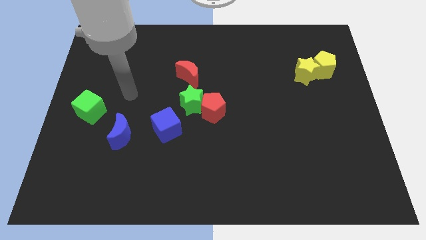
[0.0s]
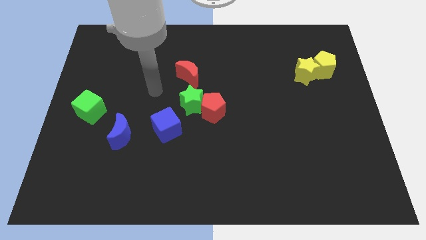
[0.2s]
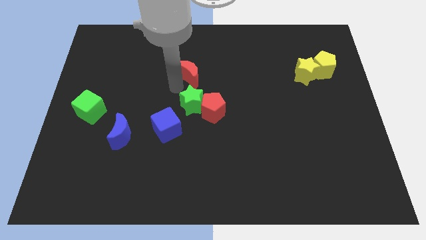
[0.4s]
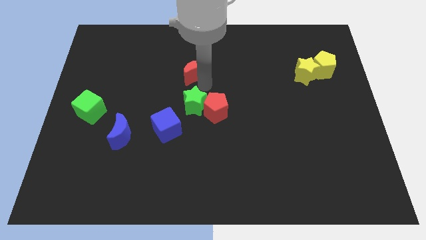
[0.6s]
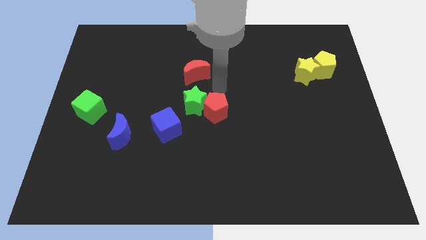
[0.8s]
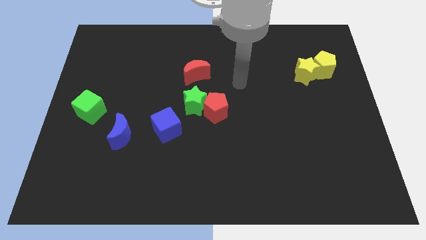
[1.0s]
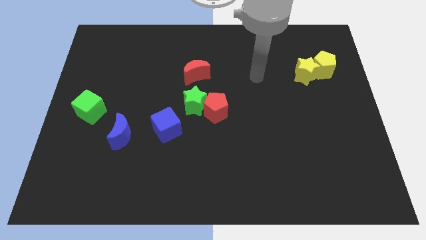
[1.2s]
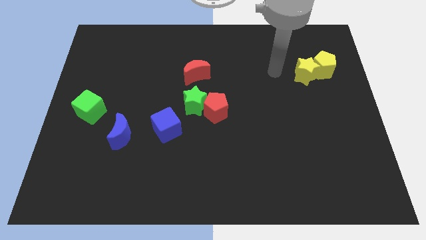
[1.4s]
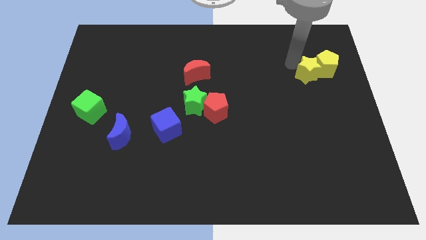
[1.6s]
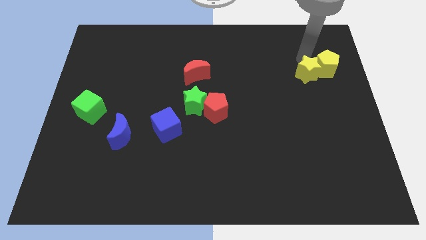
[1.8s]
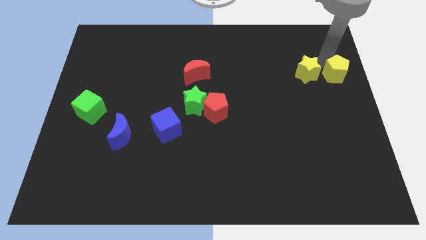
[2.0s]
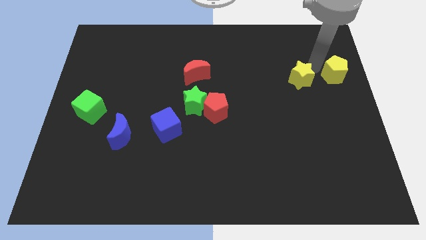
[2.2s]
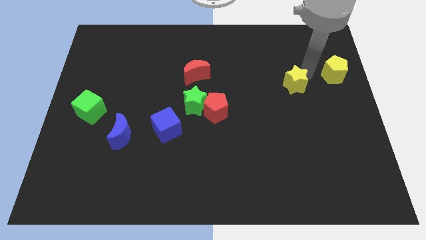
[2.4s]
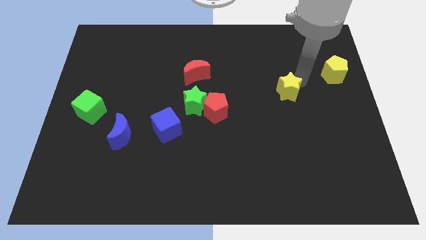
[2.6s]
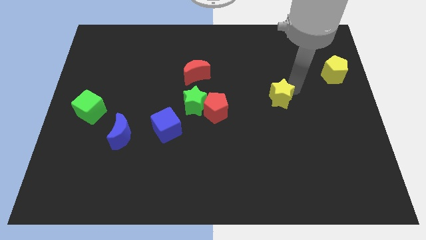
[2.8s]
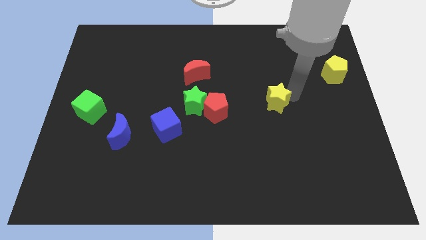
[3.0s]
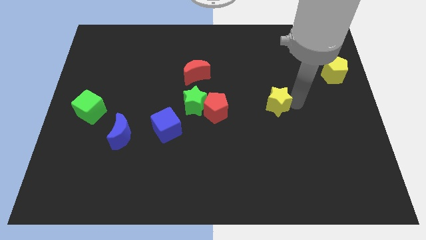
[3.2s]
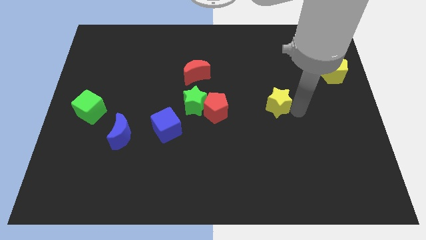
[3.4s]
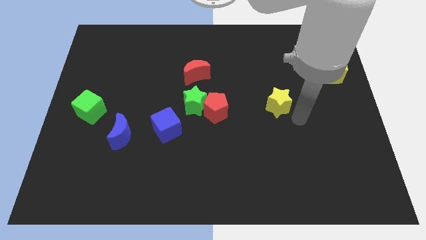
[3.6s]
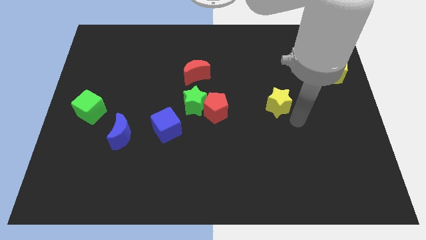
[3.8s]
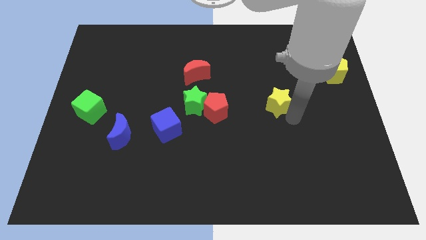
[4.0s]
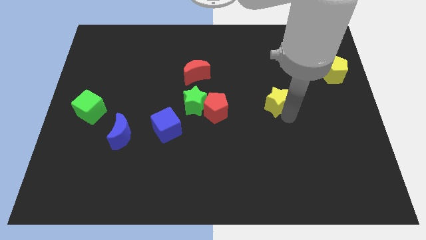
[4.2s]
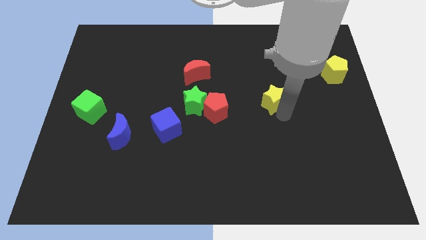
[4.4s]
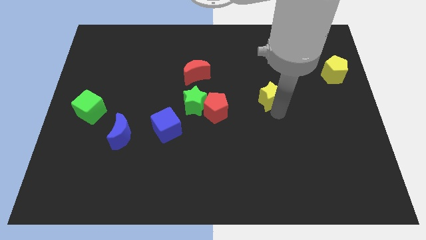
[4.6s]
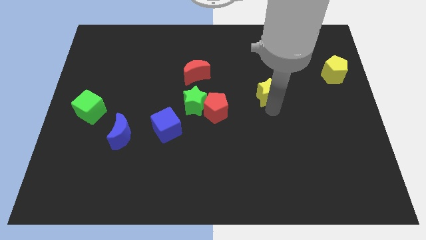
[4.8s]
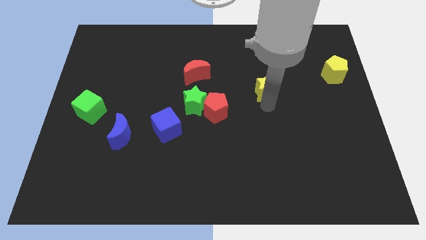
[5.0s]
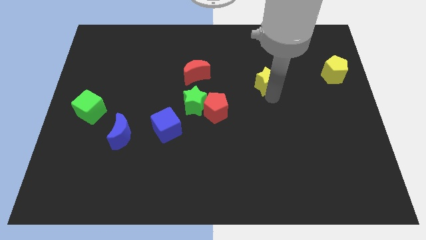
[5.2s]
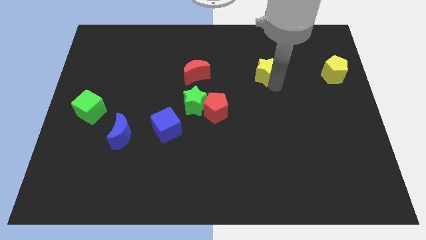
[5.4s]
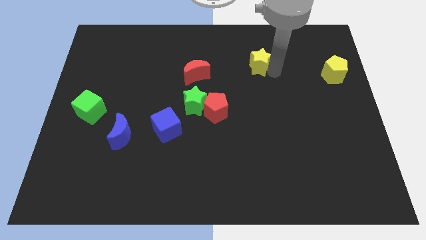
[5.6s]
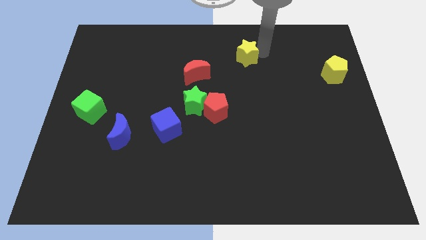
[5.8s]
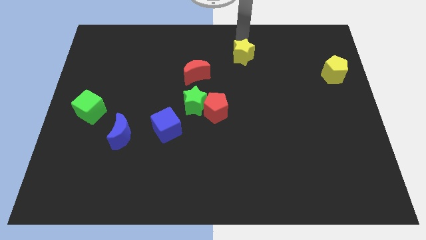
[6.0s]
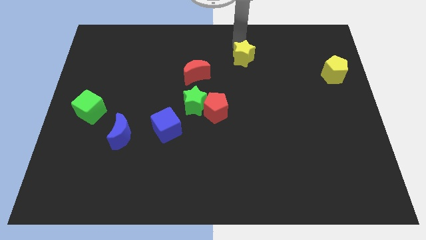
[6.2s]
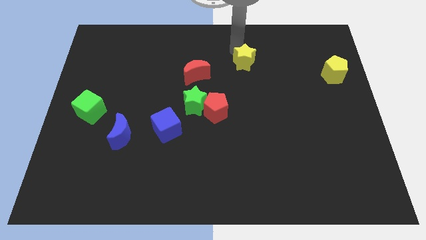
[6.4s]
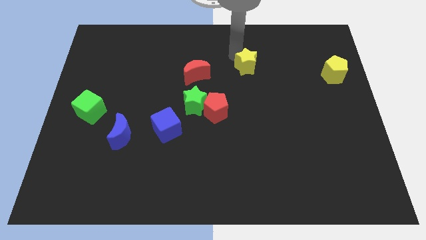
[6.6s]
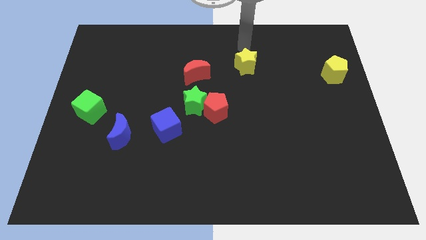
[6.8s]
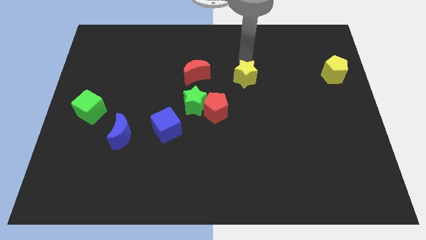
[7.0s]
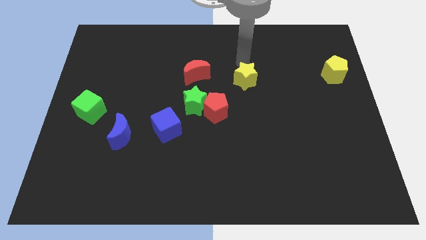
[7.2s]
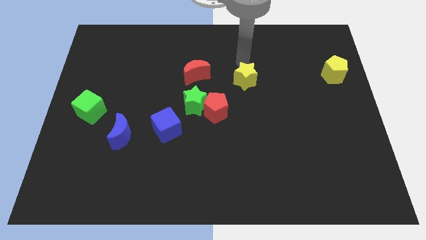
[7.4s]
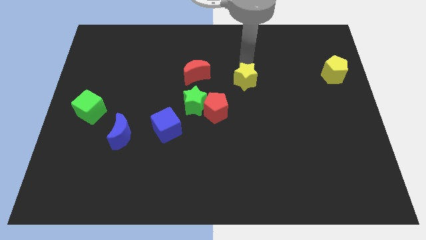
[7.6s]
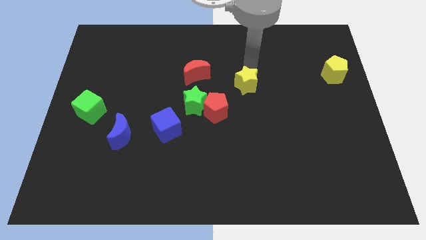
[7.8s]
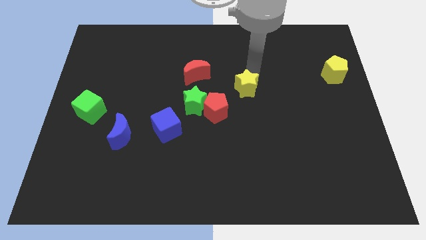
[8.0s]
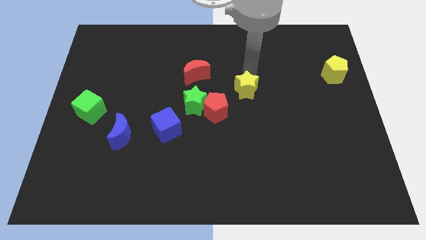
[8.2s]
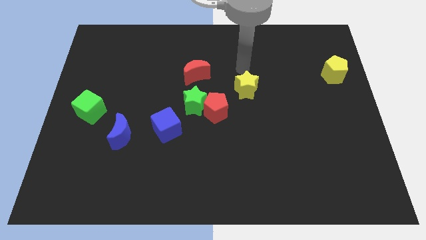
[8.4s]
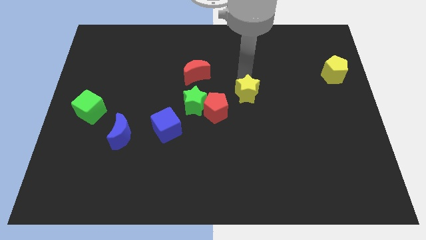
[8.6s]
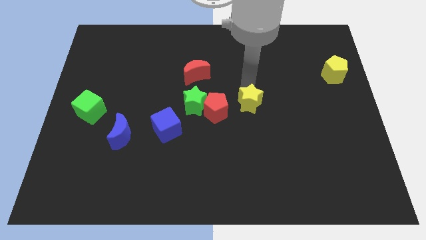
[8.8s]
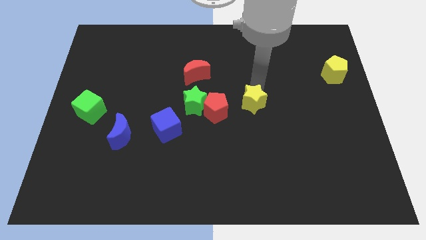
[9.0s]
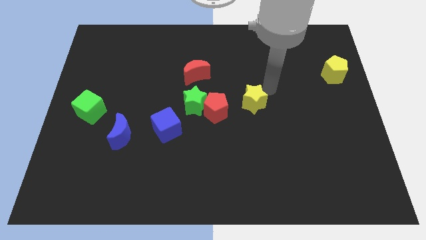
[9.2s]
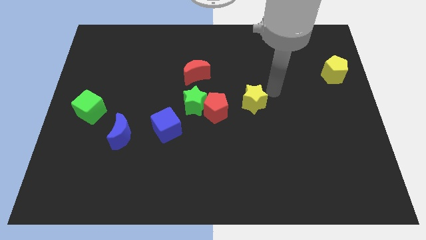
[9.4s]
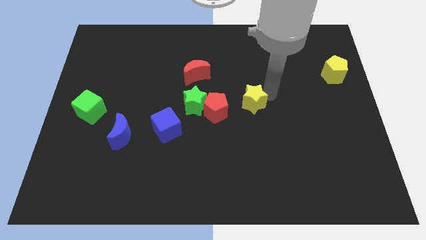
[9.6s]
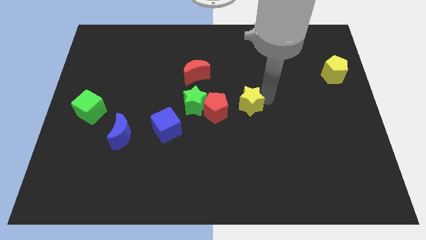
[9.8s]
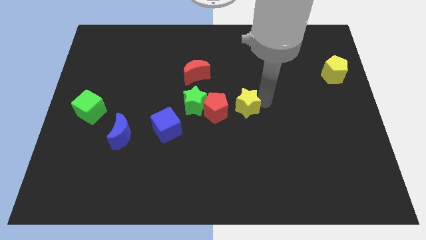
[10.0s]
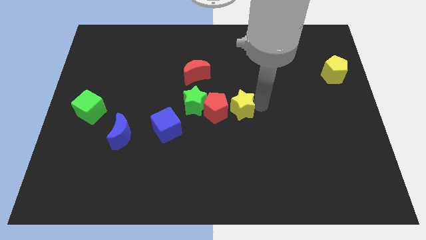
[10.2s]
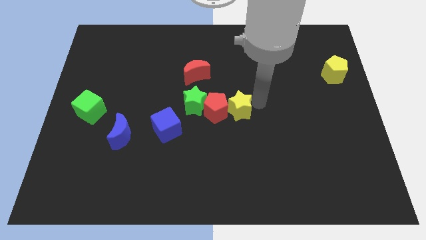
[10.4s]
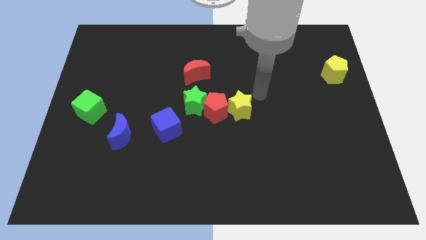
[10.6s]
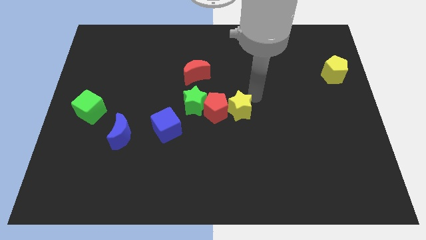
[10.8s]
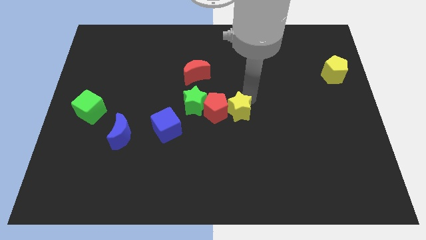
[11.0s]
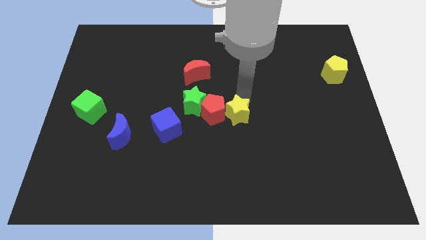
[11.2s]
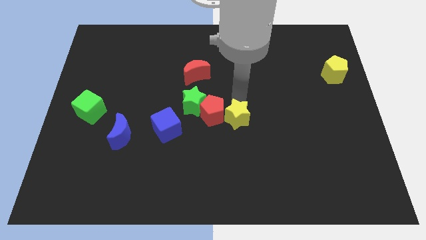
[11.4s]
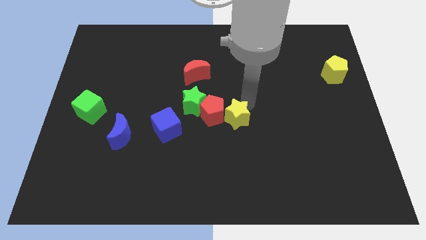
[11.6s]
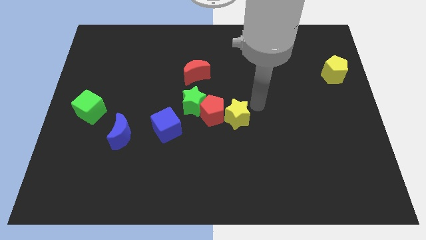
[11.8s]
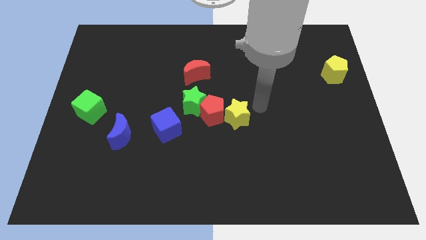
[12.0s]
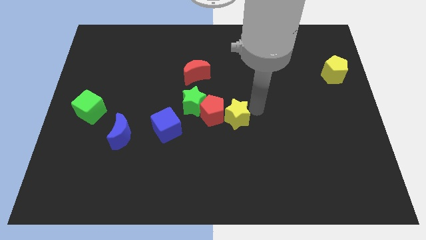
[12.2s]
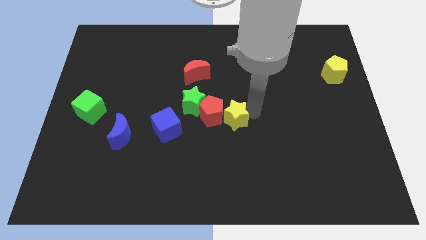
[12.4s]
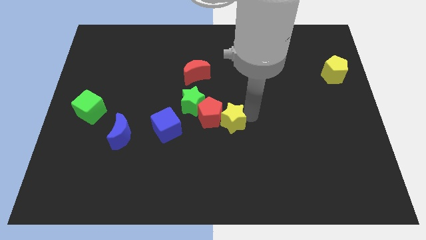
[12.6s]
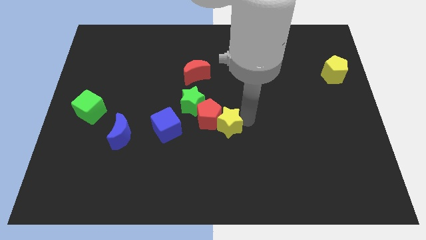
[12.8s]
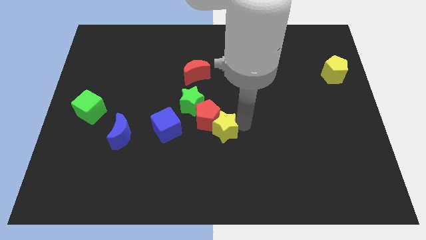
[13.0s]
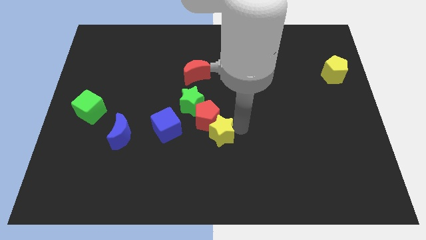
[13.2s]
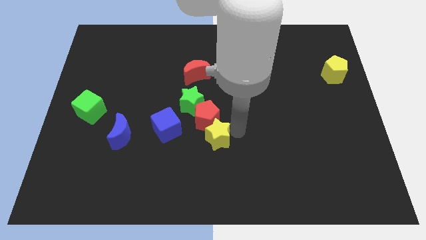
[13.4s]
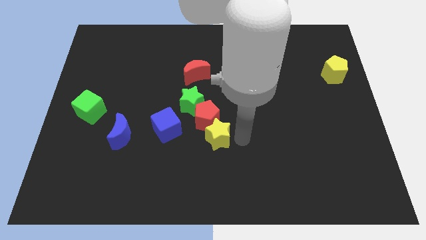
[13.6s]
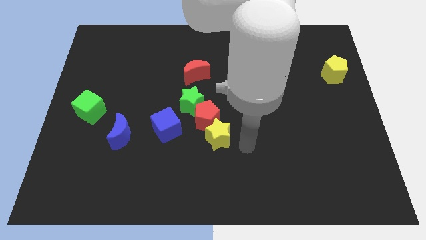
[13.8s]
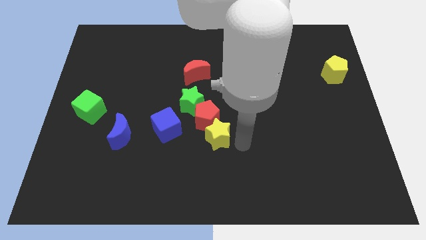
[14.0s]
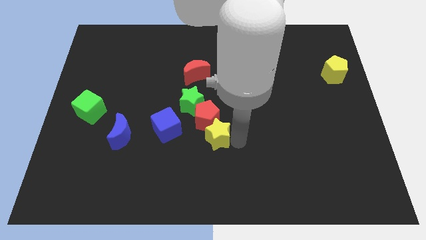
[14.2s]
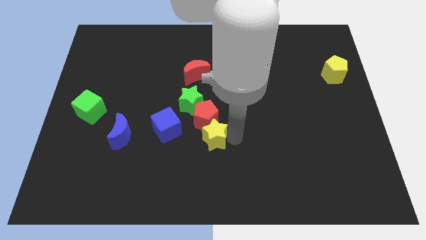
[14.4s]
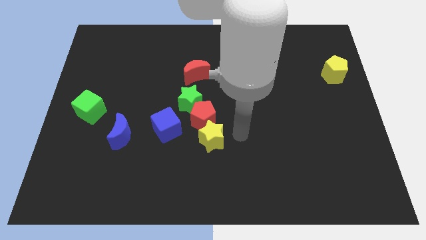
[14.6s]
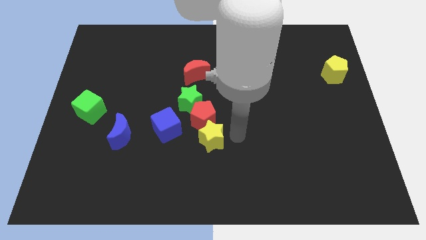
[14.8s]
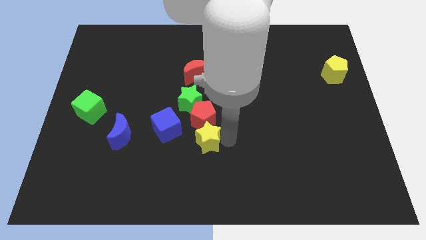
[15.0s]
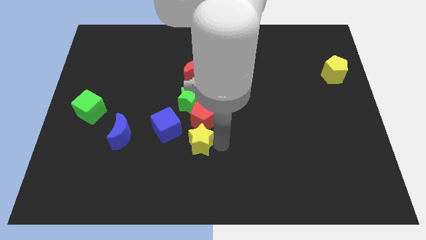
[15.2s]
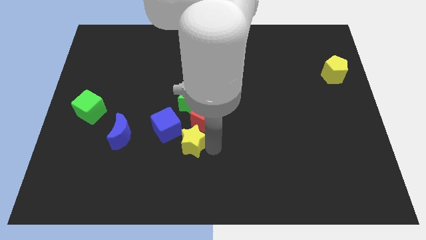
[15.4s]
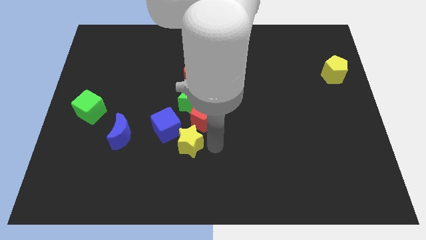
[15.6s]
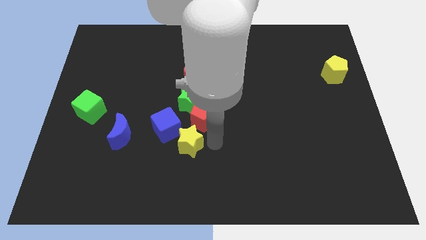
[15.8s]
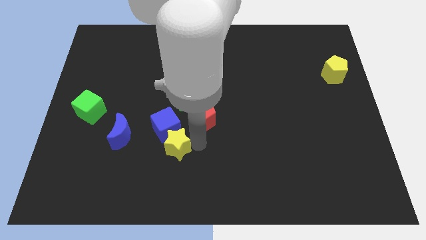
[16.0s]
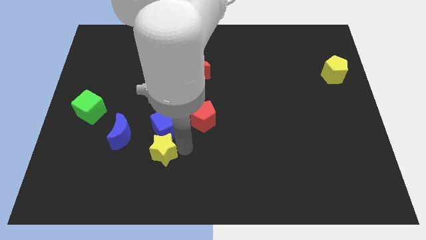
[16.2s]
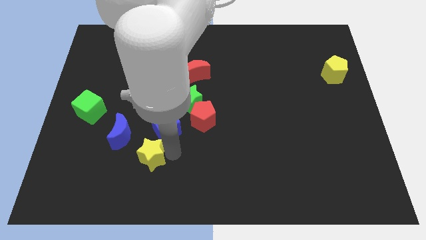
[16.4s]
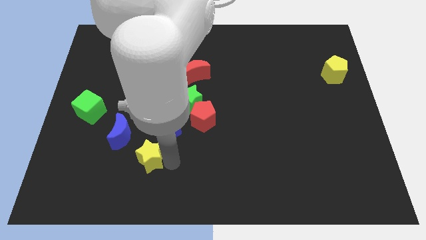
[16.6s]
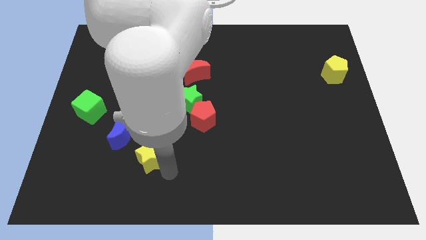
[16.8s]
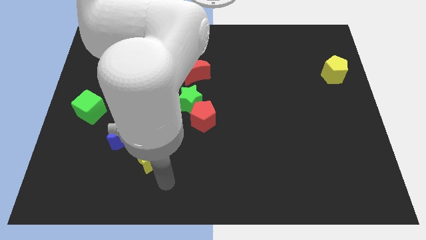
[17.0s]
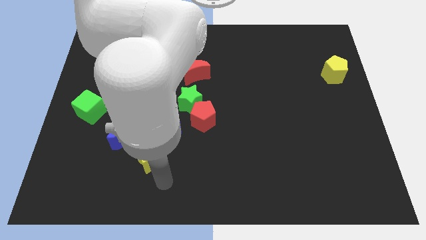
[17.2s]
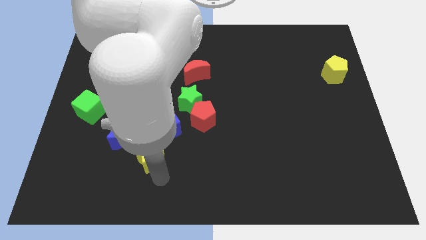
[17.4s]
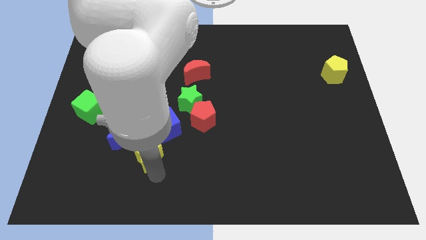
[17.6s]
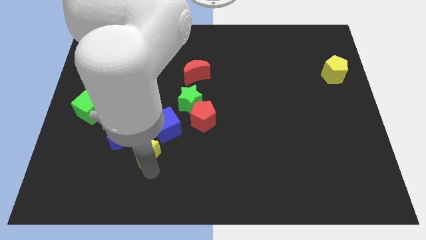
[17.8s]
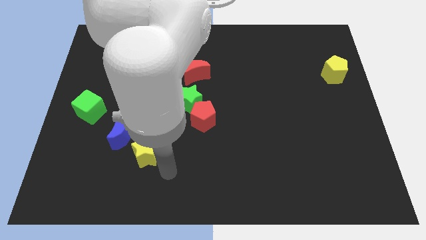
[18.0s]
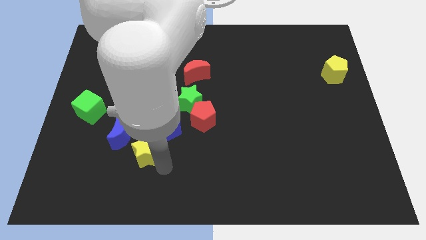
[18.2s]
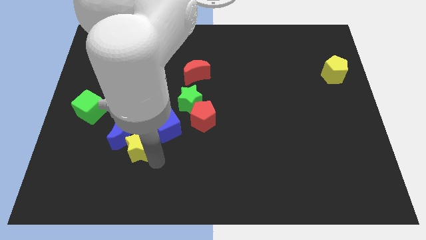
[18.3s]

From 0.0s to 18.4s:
move the yellow star towards the blue moon
